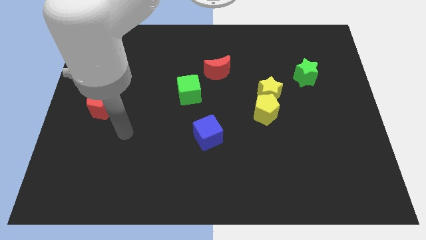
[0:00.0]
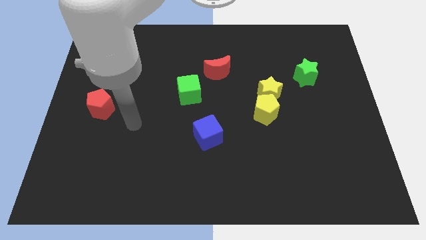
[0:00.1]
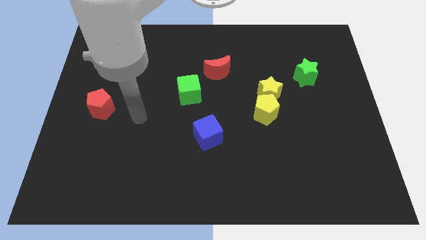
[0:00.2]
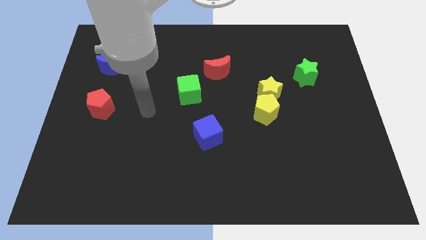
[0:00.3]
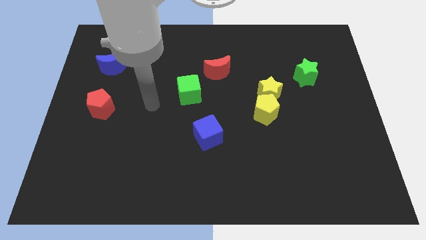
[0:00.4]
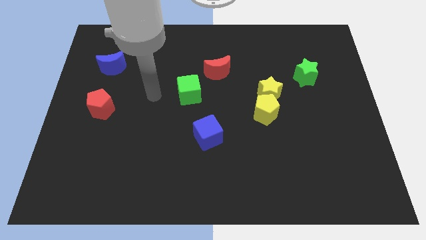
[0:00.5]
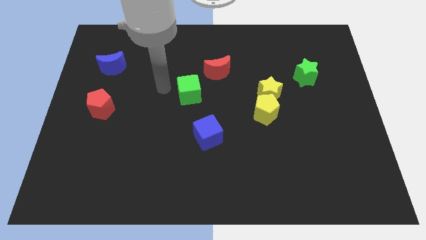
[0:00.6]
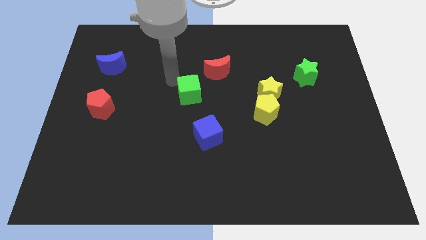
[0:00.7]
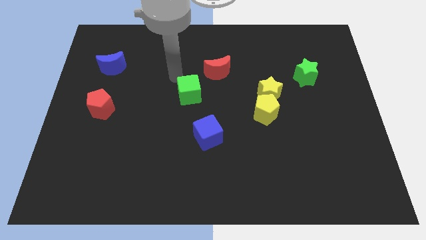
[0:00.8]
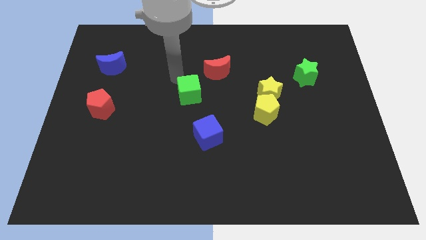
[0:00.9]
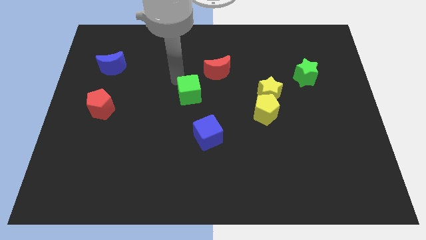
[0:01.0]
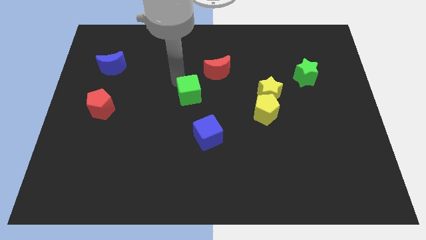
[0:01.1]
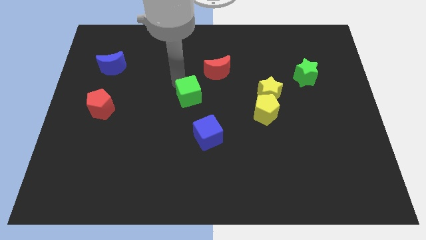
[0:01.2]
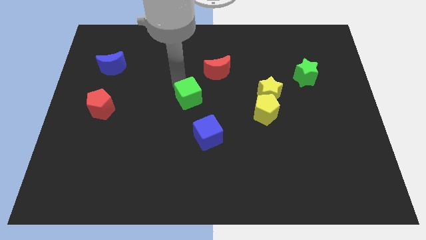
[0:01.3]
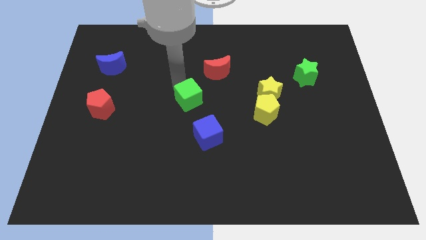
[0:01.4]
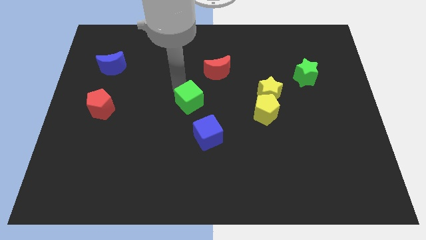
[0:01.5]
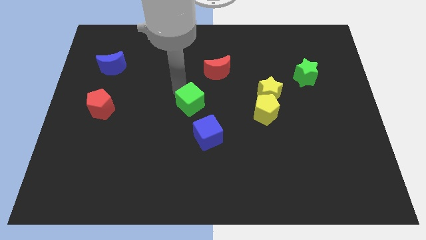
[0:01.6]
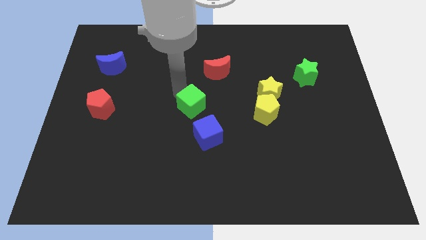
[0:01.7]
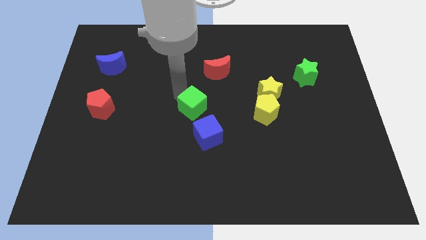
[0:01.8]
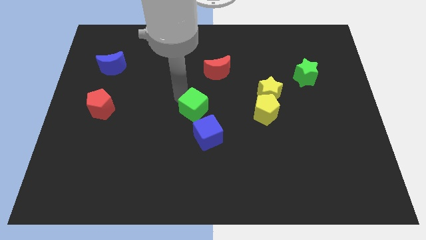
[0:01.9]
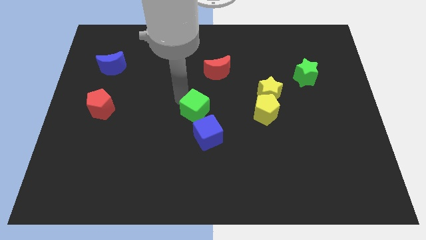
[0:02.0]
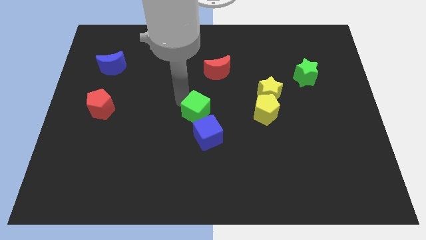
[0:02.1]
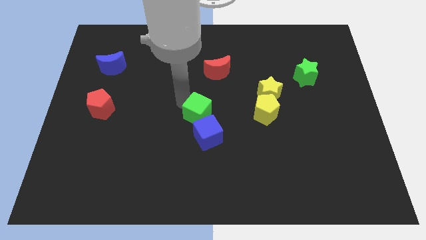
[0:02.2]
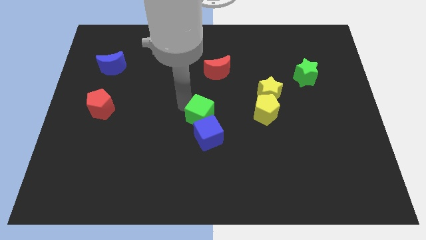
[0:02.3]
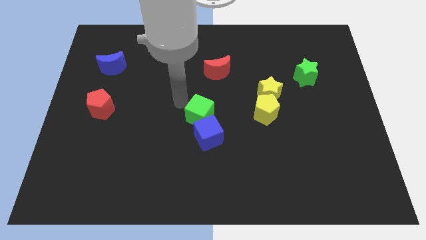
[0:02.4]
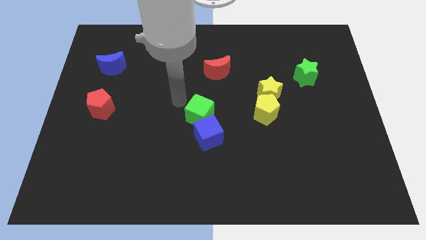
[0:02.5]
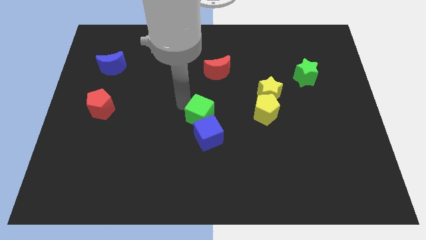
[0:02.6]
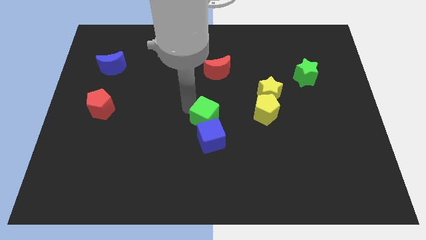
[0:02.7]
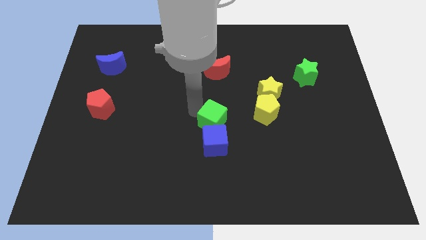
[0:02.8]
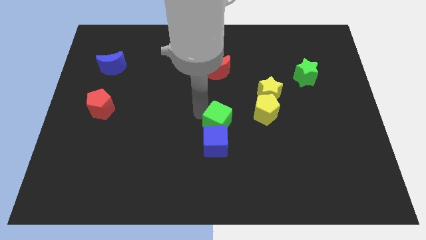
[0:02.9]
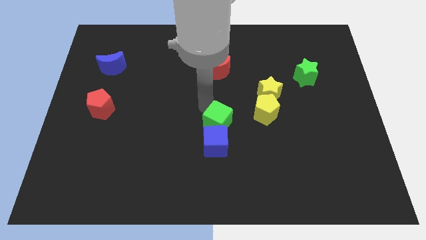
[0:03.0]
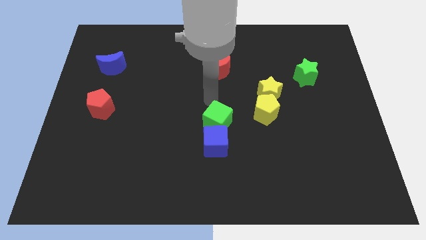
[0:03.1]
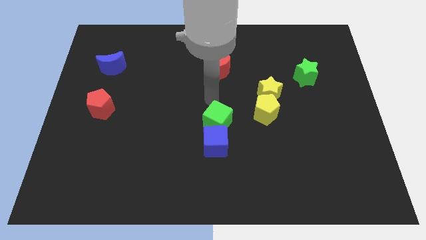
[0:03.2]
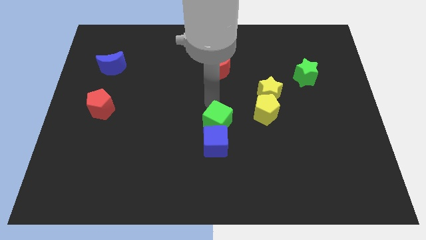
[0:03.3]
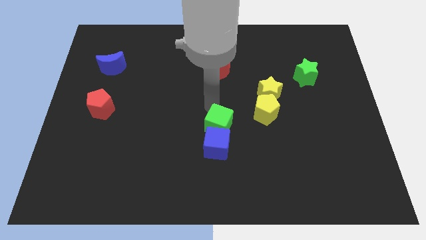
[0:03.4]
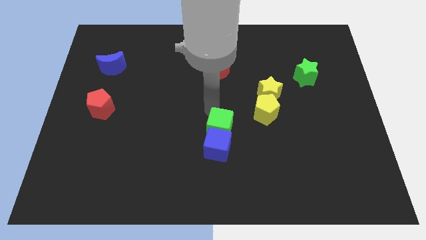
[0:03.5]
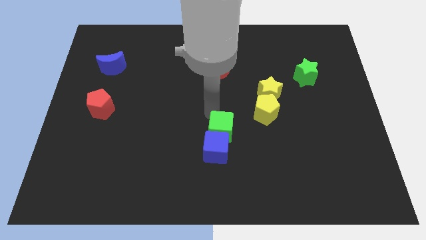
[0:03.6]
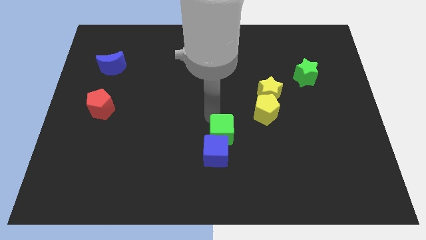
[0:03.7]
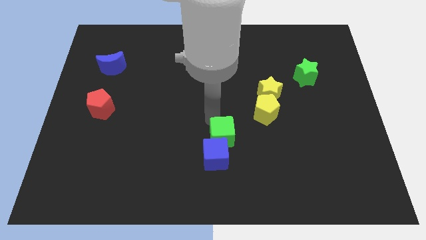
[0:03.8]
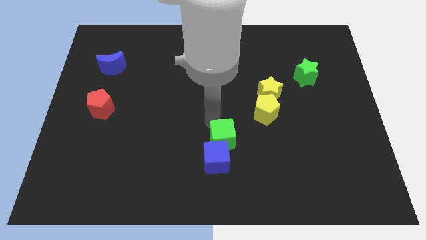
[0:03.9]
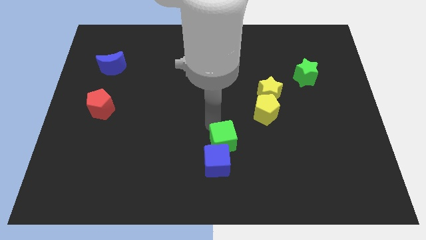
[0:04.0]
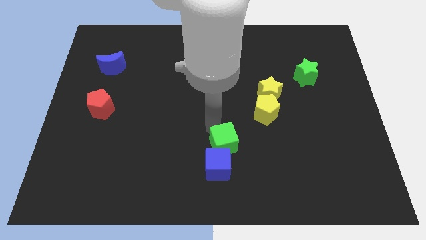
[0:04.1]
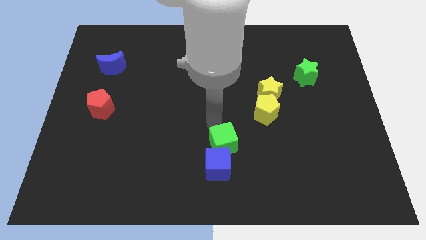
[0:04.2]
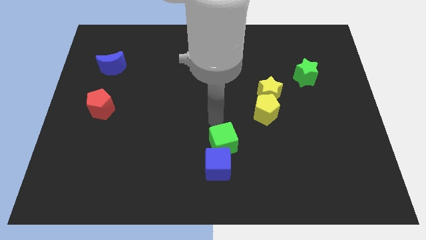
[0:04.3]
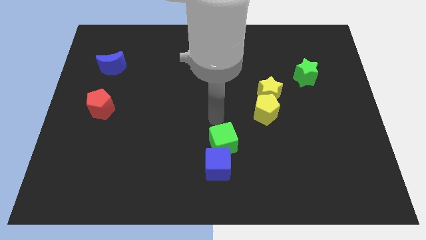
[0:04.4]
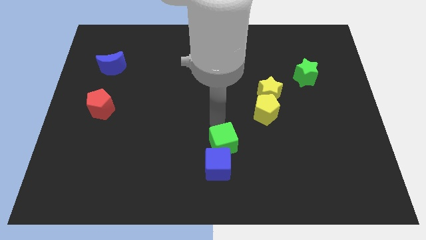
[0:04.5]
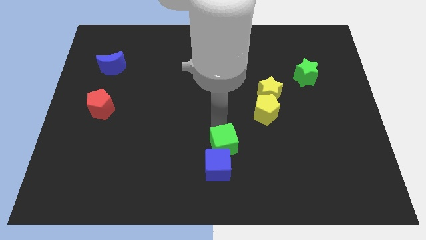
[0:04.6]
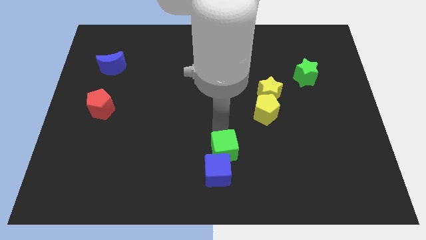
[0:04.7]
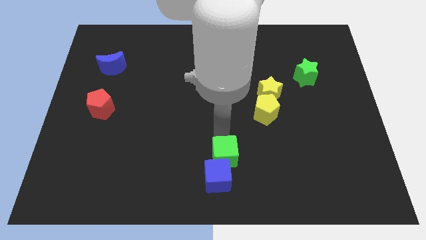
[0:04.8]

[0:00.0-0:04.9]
put the green cube to the bottom
